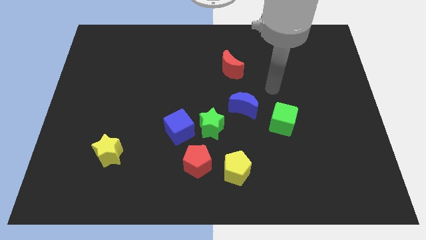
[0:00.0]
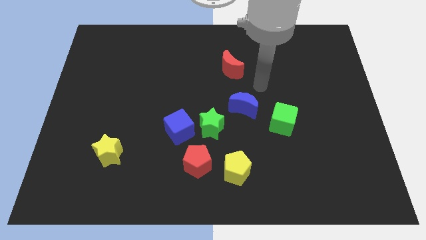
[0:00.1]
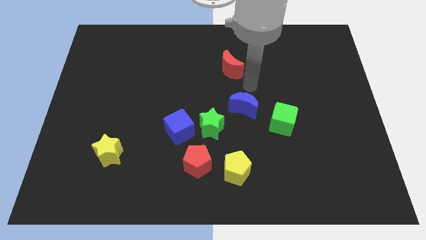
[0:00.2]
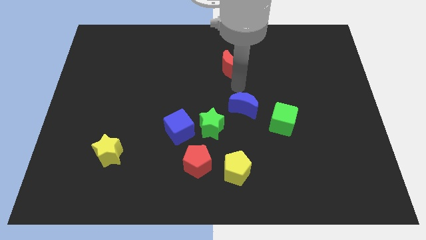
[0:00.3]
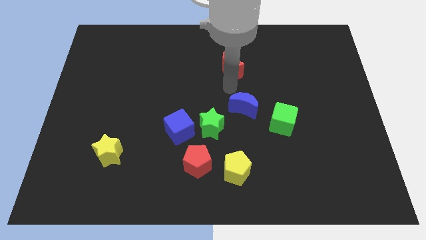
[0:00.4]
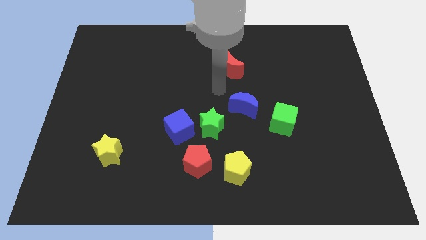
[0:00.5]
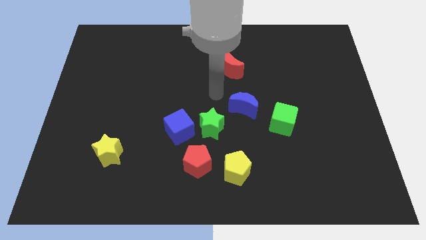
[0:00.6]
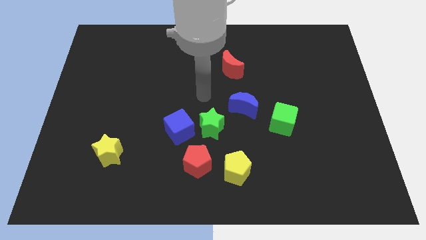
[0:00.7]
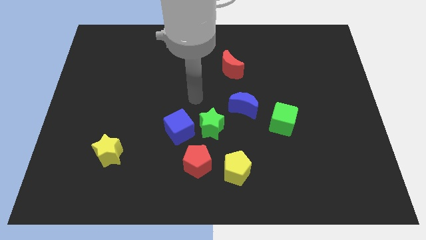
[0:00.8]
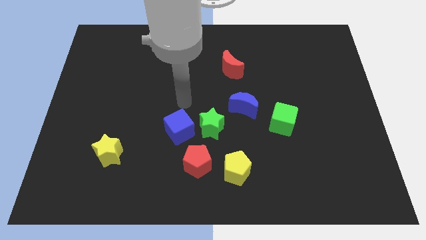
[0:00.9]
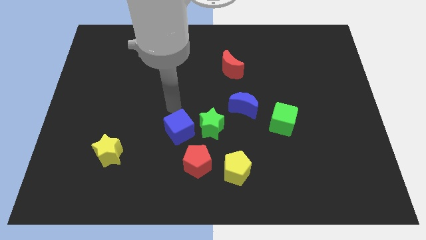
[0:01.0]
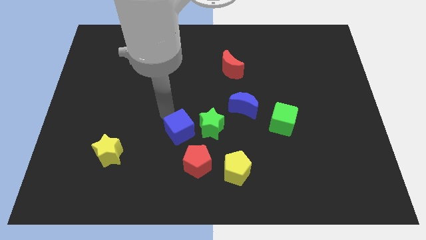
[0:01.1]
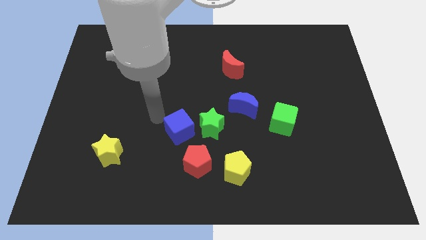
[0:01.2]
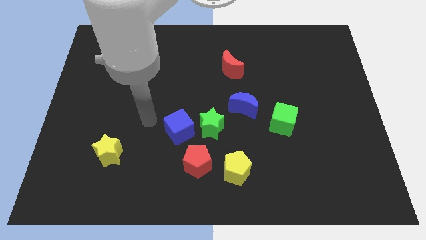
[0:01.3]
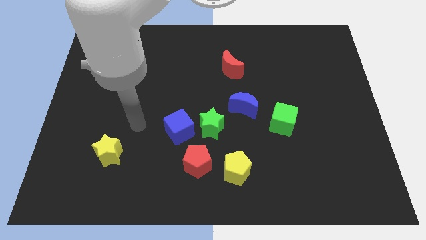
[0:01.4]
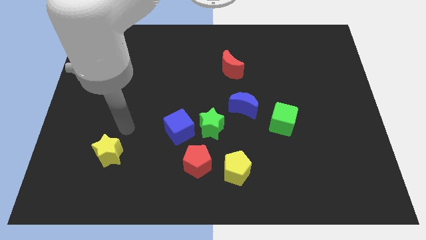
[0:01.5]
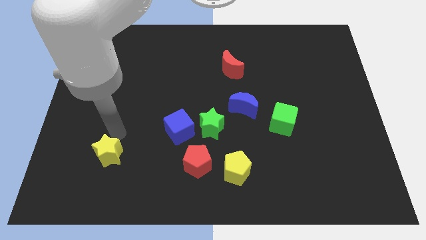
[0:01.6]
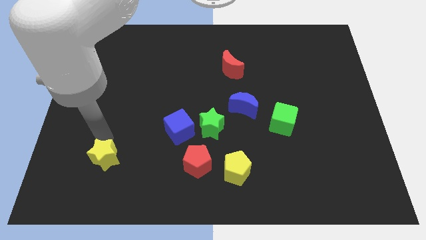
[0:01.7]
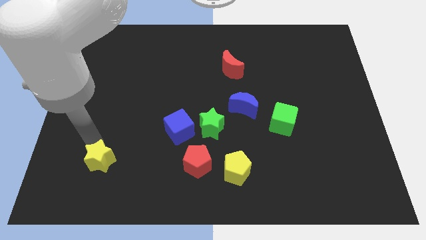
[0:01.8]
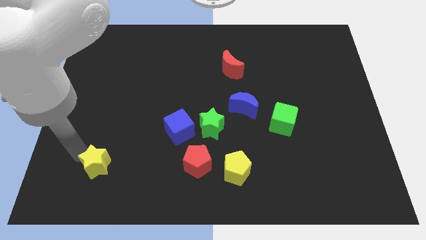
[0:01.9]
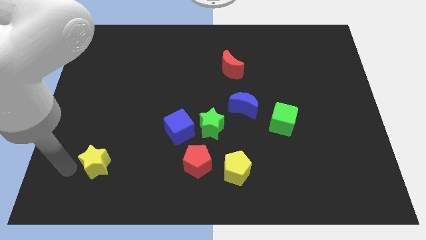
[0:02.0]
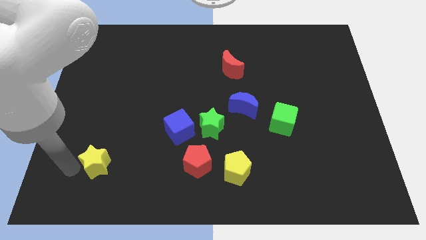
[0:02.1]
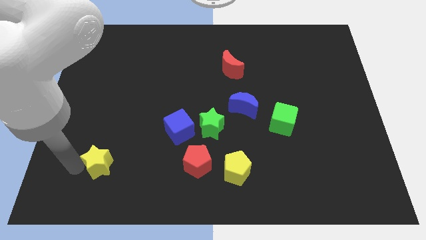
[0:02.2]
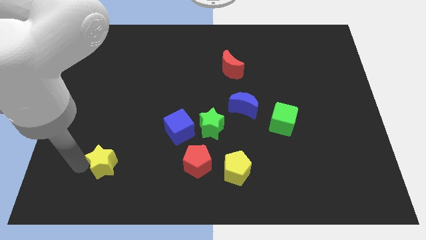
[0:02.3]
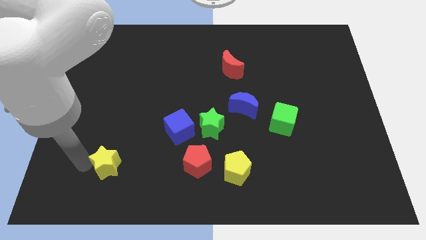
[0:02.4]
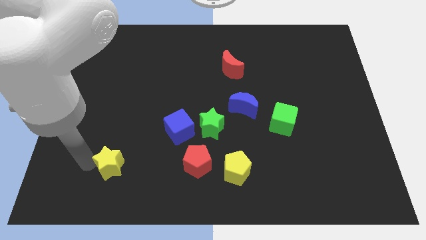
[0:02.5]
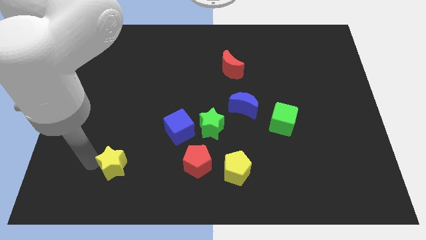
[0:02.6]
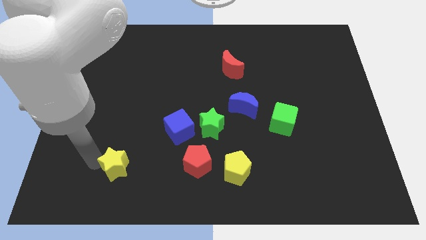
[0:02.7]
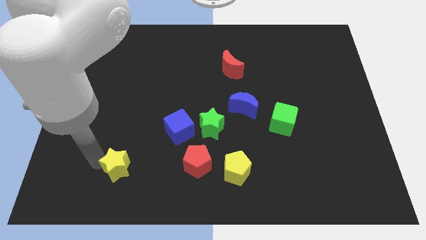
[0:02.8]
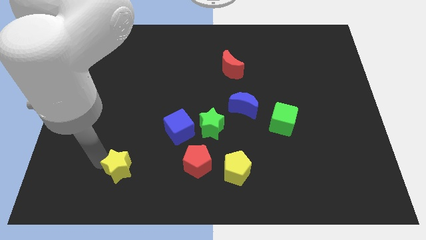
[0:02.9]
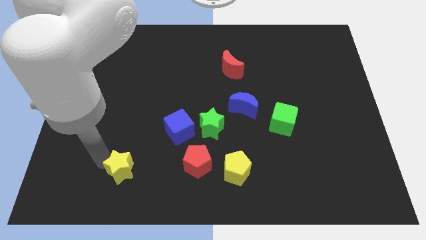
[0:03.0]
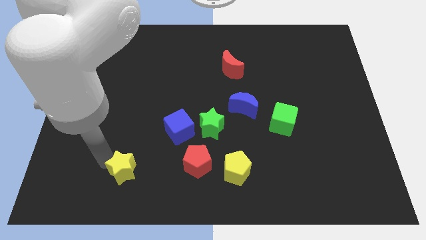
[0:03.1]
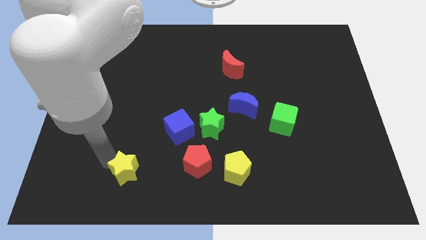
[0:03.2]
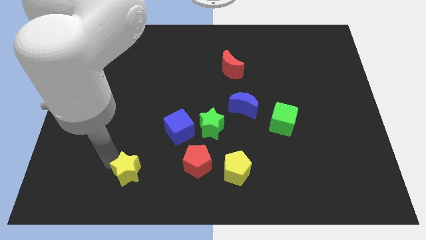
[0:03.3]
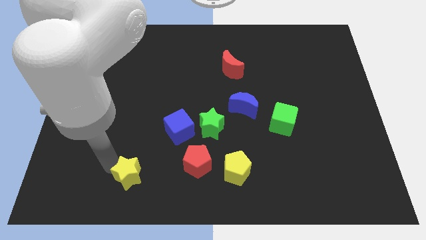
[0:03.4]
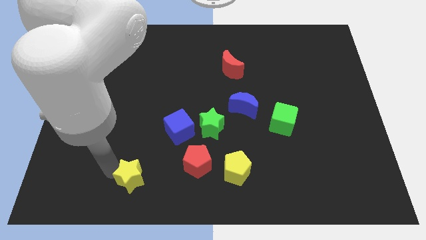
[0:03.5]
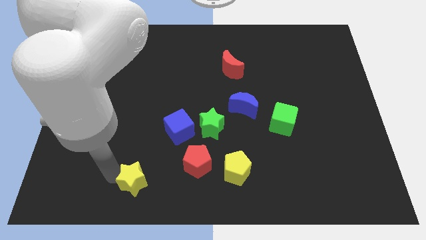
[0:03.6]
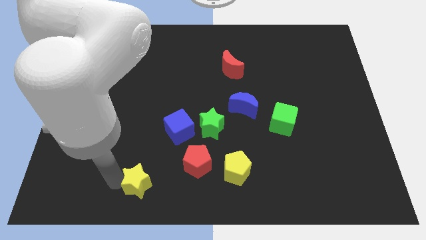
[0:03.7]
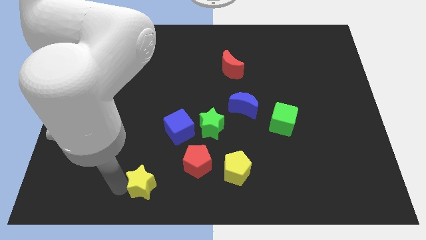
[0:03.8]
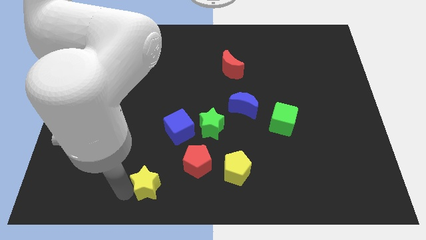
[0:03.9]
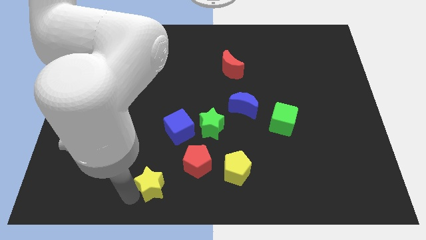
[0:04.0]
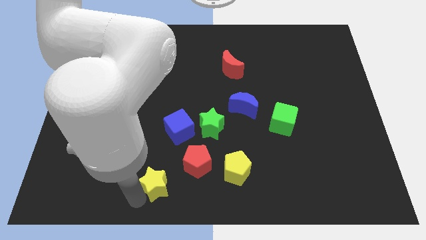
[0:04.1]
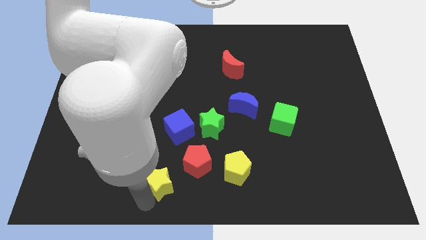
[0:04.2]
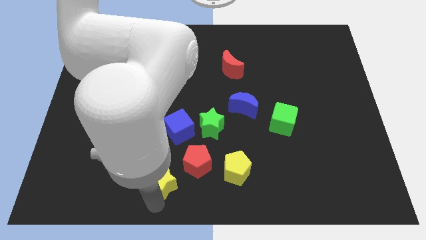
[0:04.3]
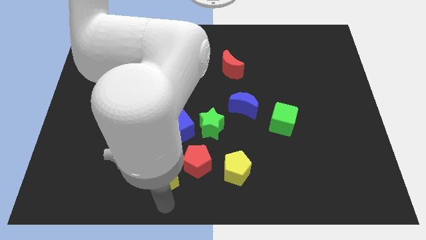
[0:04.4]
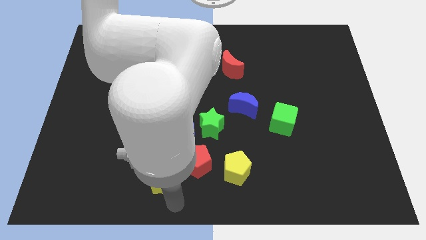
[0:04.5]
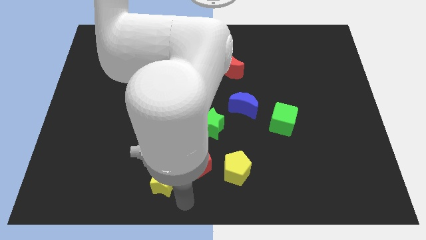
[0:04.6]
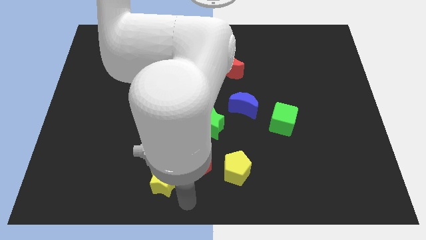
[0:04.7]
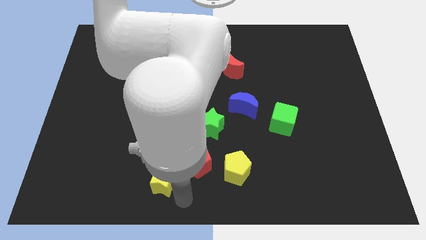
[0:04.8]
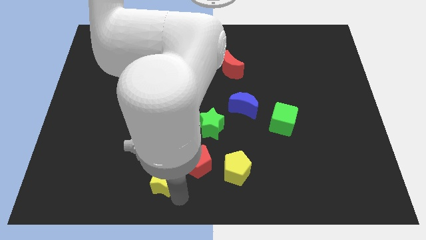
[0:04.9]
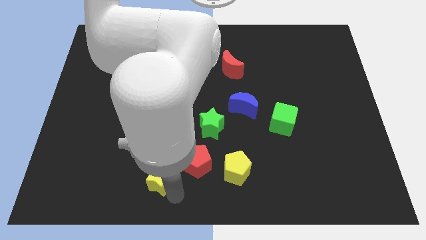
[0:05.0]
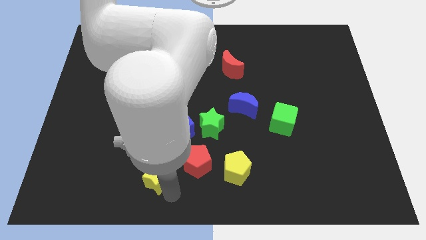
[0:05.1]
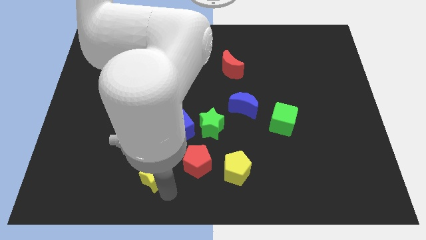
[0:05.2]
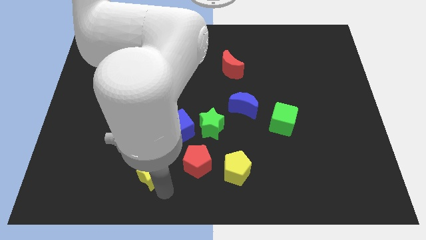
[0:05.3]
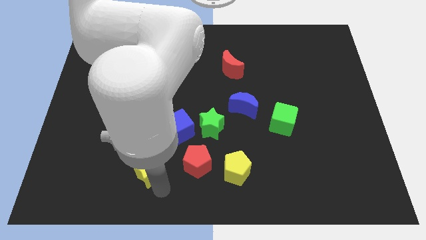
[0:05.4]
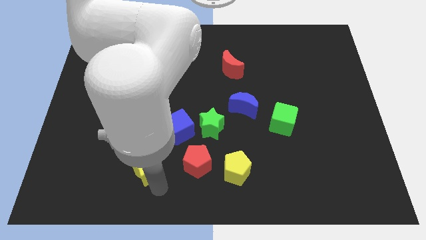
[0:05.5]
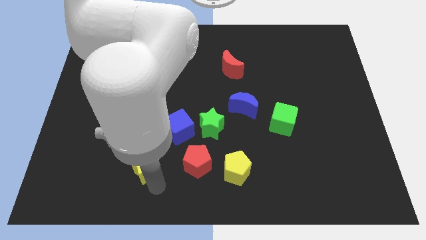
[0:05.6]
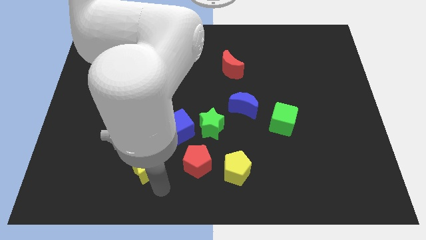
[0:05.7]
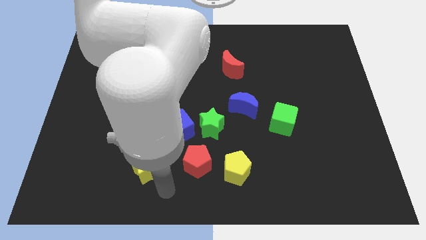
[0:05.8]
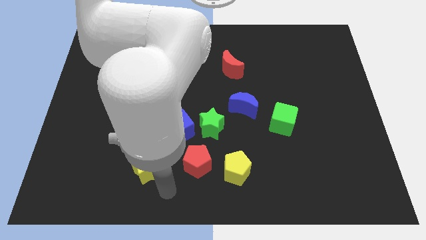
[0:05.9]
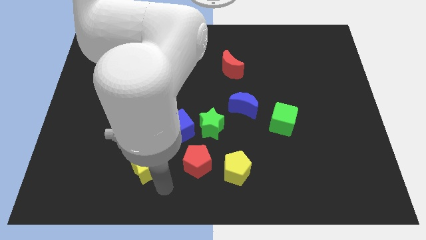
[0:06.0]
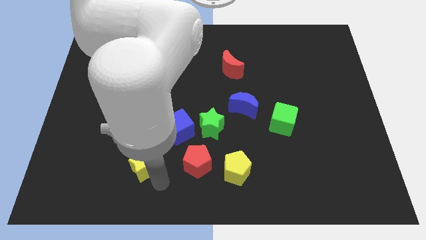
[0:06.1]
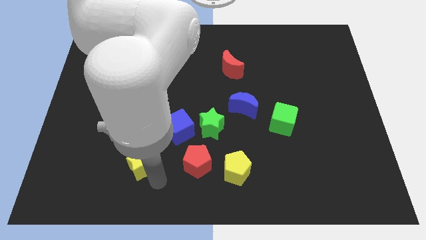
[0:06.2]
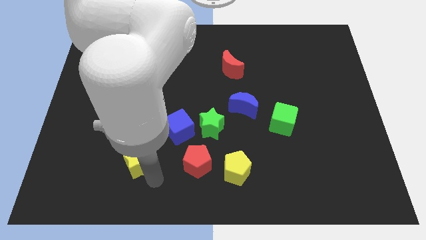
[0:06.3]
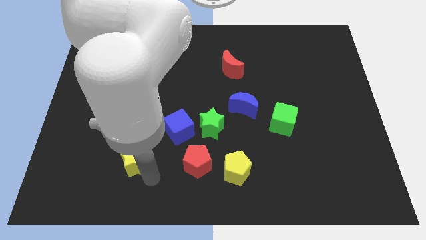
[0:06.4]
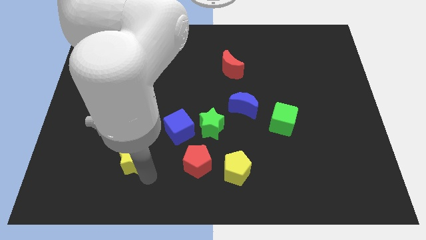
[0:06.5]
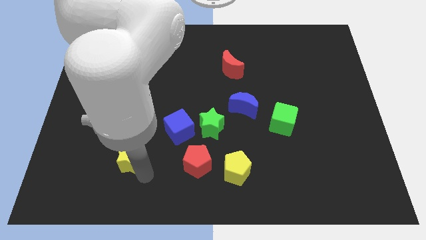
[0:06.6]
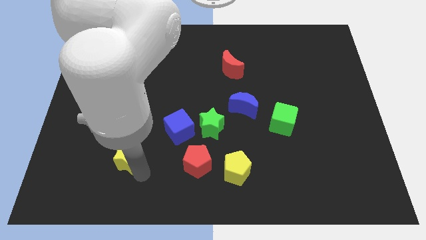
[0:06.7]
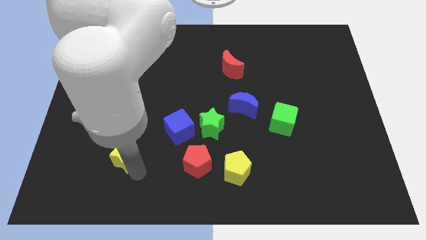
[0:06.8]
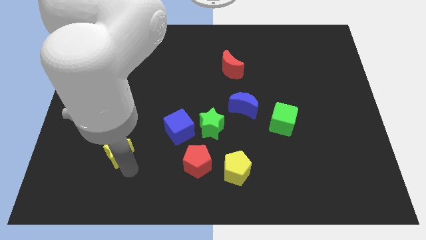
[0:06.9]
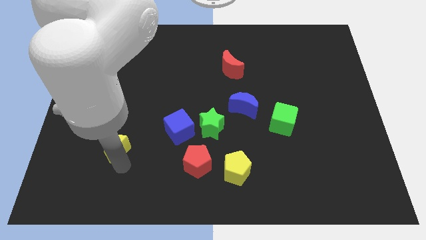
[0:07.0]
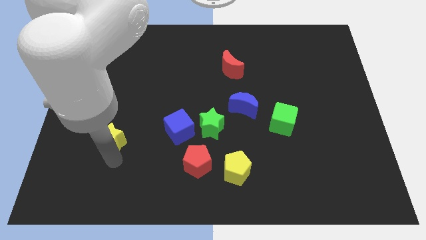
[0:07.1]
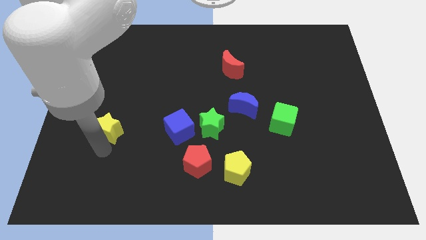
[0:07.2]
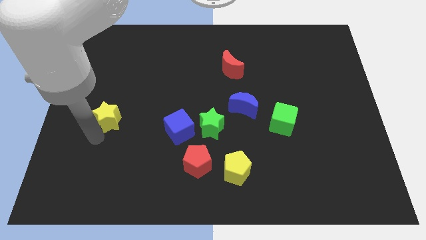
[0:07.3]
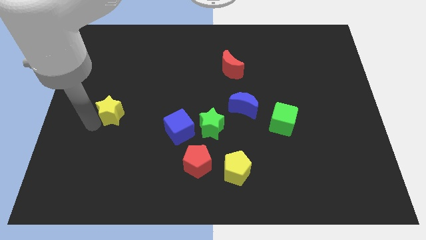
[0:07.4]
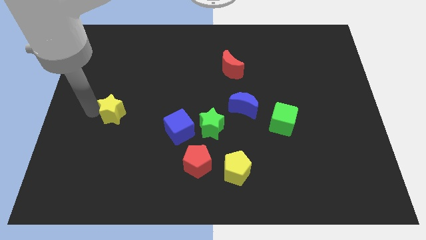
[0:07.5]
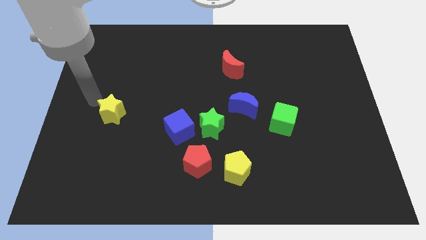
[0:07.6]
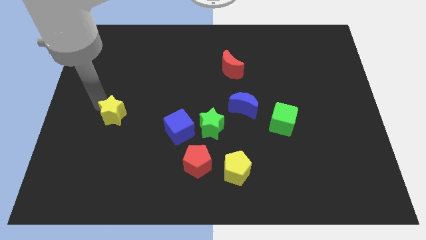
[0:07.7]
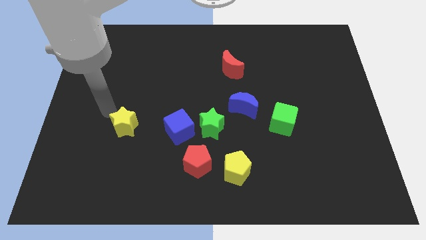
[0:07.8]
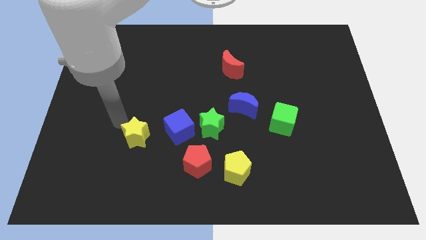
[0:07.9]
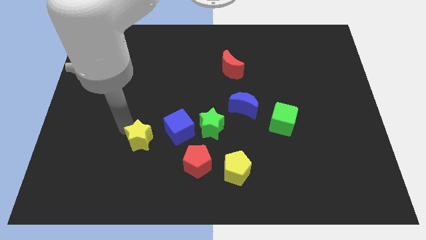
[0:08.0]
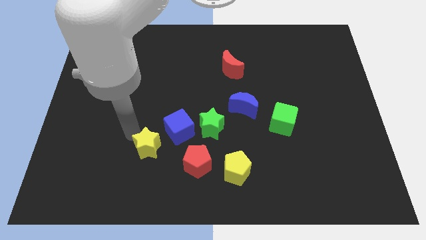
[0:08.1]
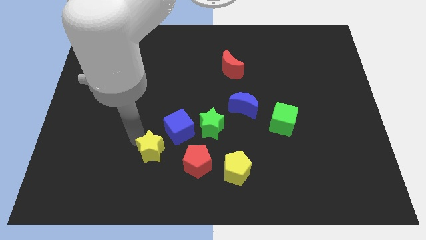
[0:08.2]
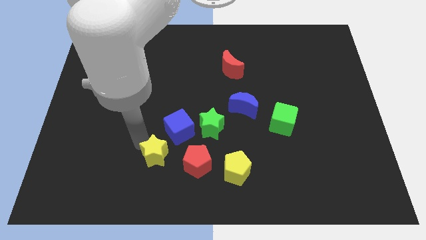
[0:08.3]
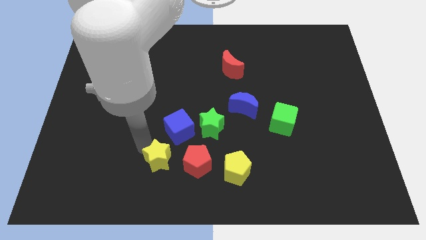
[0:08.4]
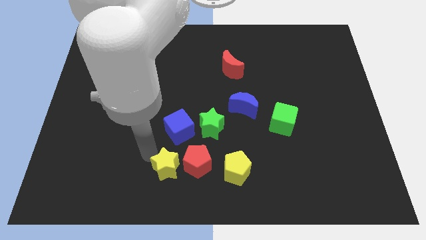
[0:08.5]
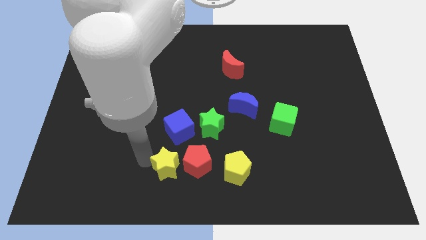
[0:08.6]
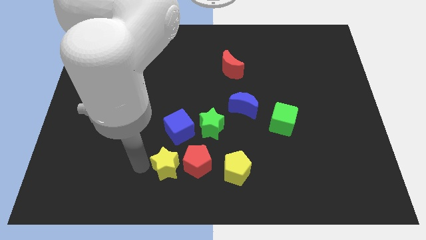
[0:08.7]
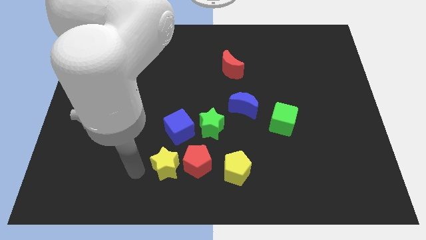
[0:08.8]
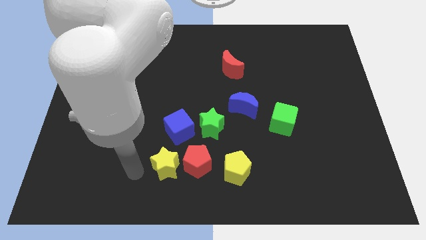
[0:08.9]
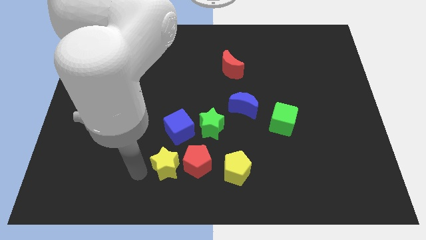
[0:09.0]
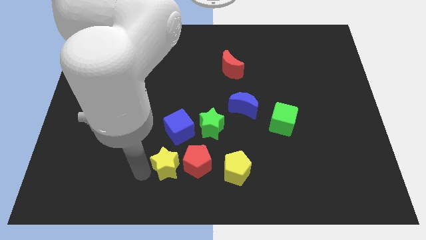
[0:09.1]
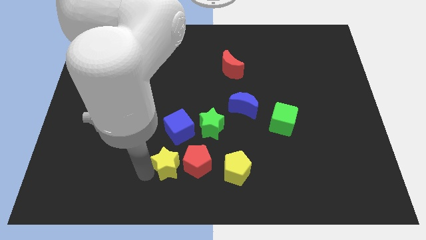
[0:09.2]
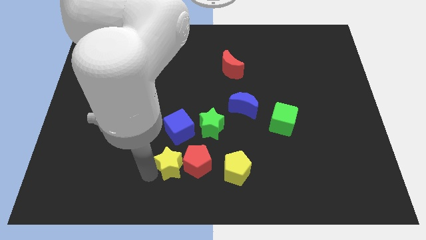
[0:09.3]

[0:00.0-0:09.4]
slide the yellow star close to the red pentagon
